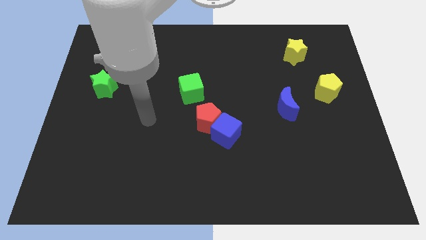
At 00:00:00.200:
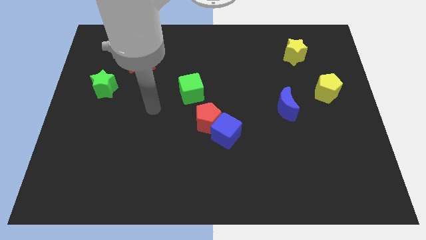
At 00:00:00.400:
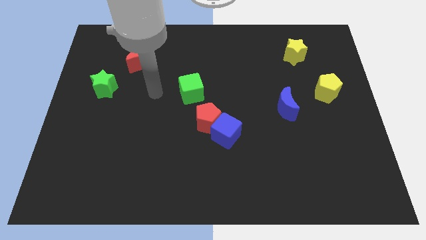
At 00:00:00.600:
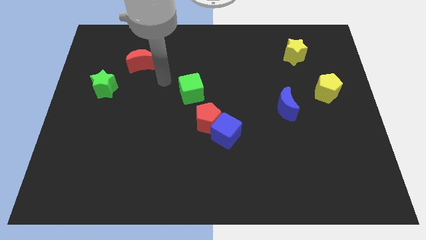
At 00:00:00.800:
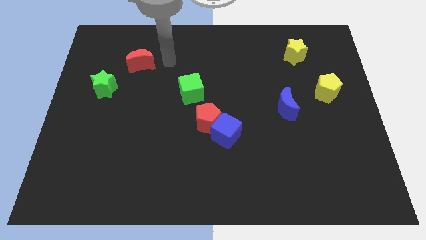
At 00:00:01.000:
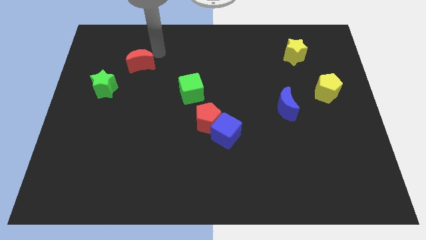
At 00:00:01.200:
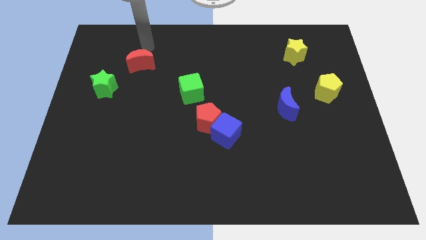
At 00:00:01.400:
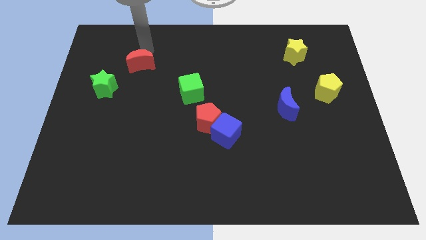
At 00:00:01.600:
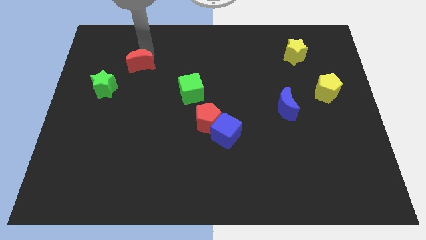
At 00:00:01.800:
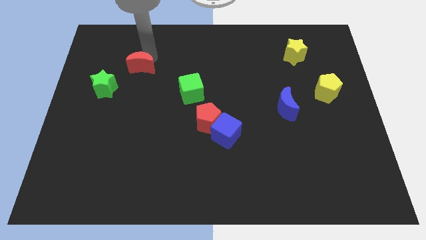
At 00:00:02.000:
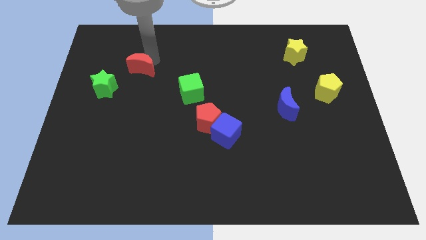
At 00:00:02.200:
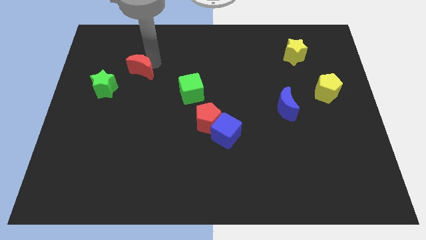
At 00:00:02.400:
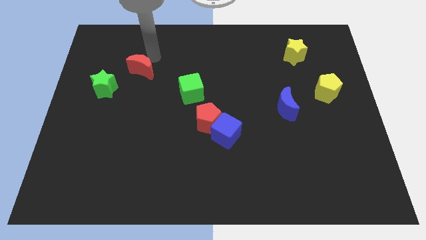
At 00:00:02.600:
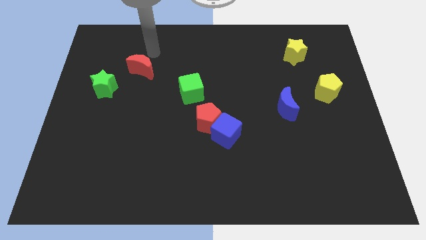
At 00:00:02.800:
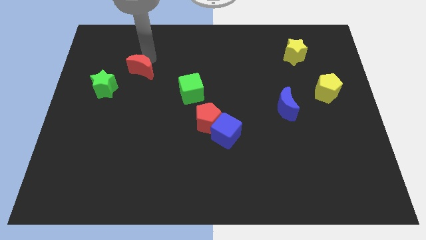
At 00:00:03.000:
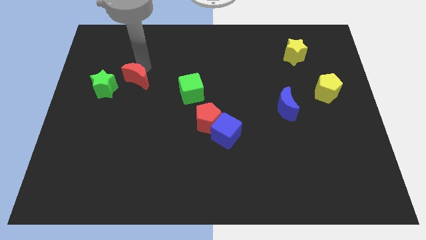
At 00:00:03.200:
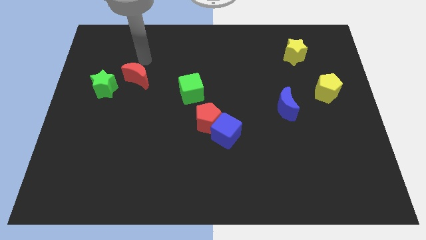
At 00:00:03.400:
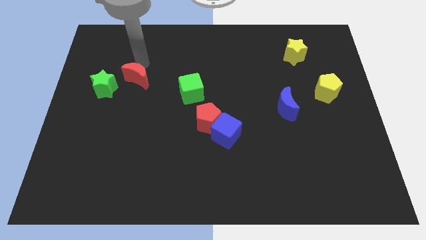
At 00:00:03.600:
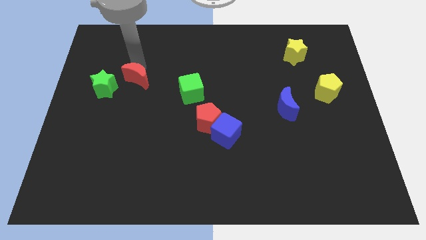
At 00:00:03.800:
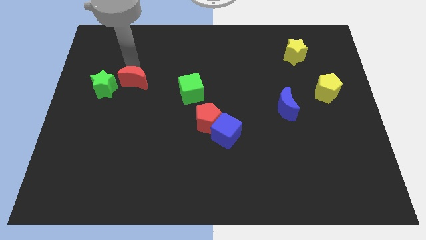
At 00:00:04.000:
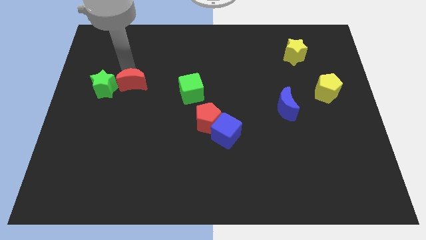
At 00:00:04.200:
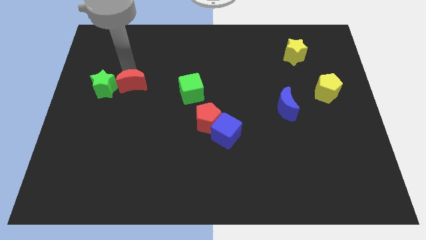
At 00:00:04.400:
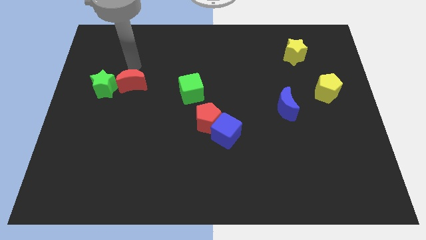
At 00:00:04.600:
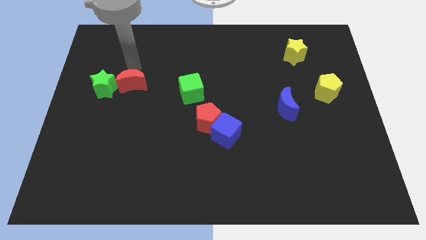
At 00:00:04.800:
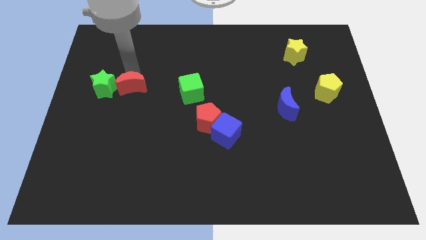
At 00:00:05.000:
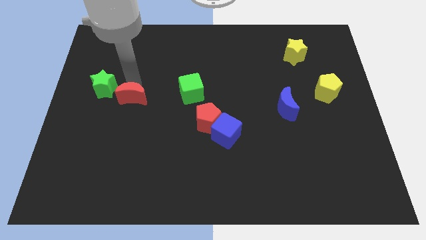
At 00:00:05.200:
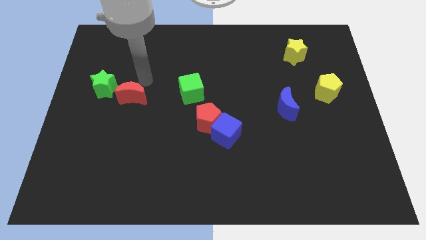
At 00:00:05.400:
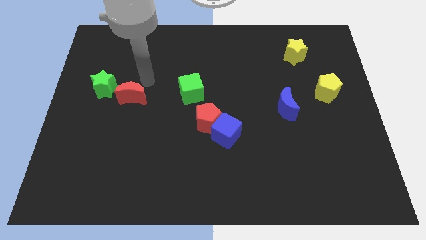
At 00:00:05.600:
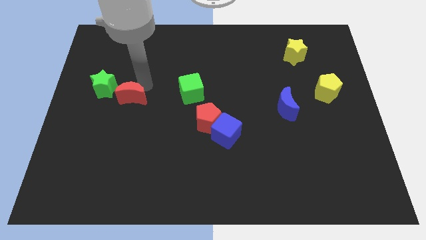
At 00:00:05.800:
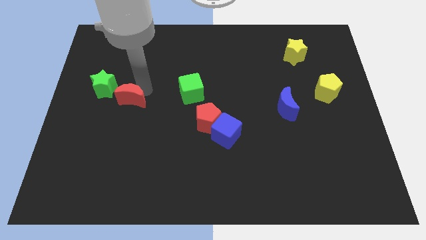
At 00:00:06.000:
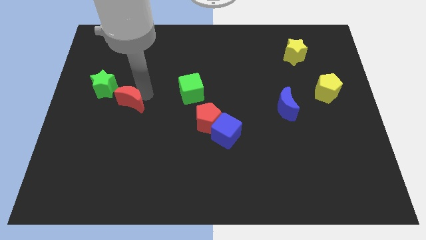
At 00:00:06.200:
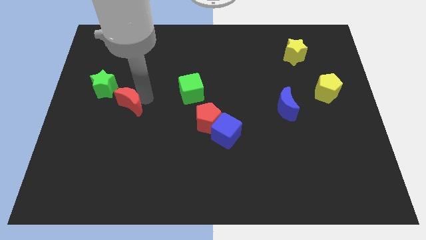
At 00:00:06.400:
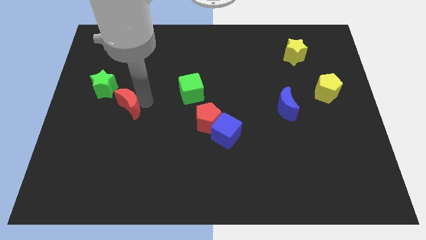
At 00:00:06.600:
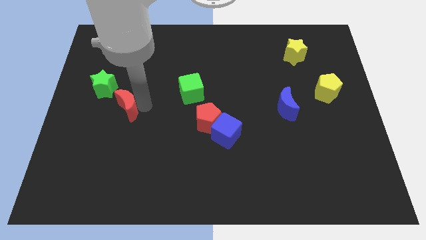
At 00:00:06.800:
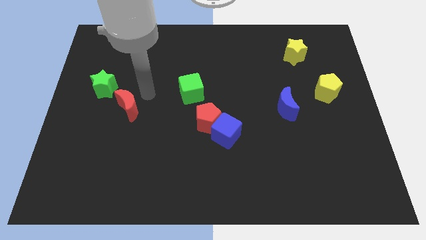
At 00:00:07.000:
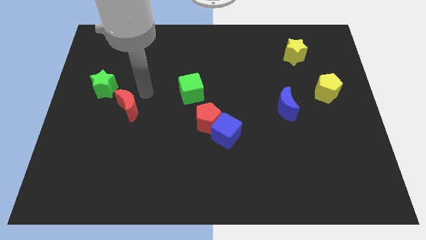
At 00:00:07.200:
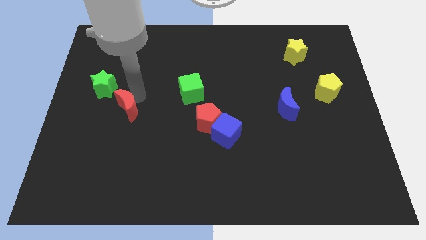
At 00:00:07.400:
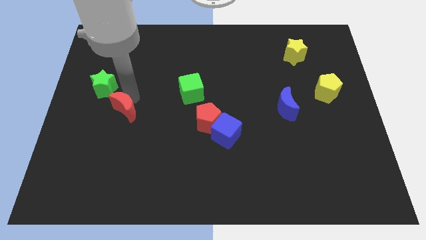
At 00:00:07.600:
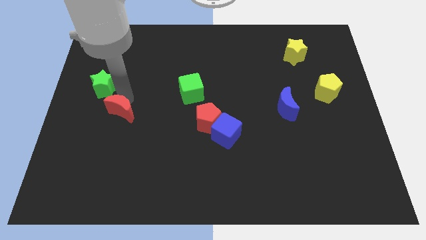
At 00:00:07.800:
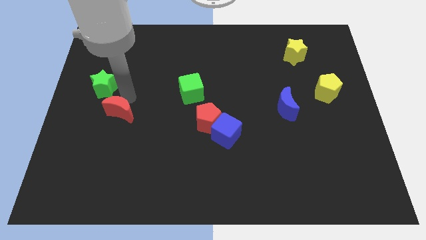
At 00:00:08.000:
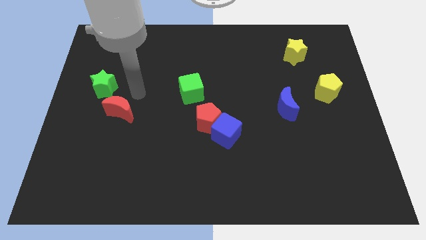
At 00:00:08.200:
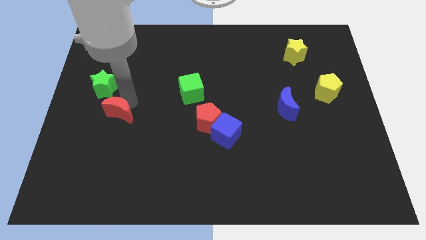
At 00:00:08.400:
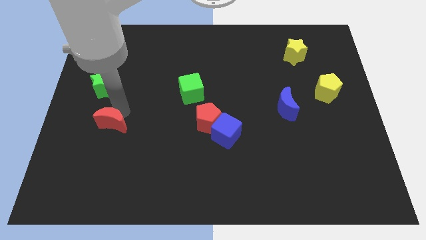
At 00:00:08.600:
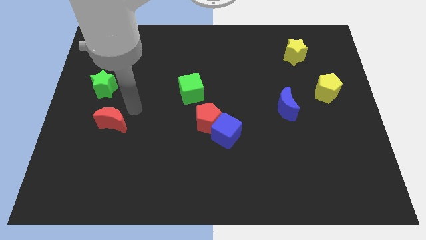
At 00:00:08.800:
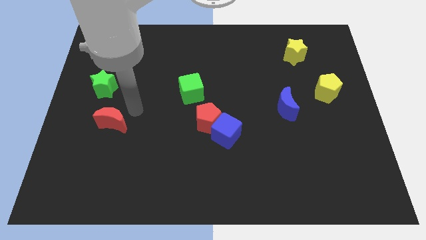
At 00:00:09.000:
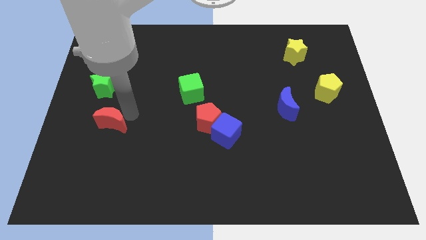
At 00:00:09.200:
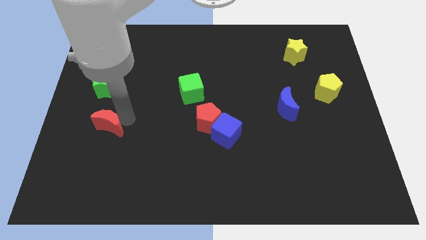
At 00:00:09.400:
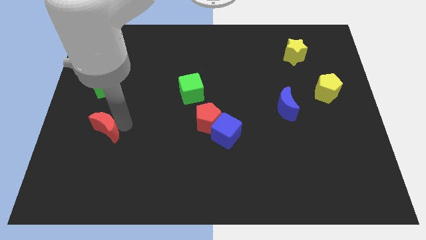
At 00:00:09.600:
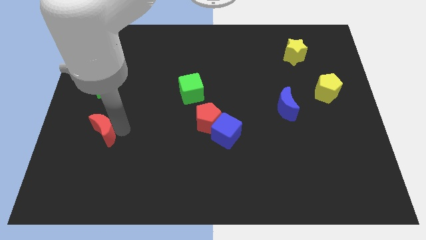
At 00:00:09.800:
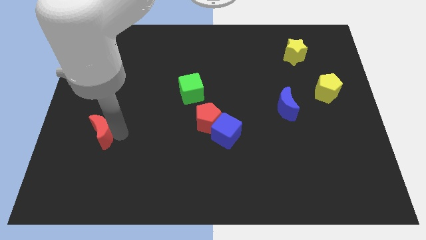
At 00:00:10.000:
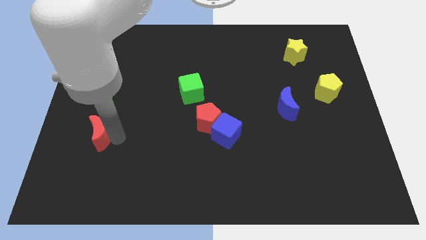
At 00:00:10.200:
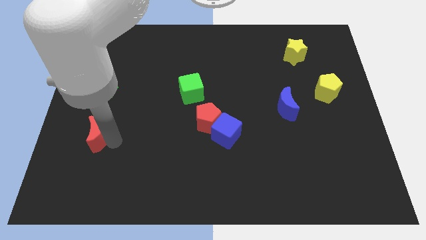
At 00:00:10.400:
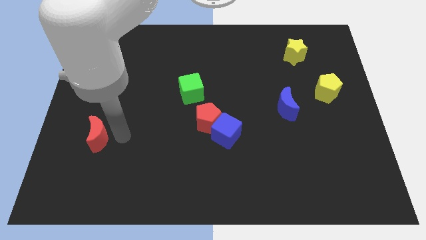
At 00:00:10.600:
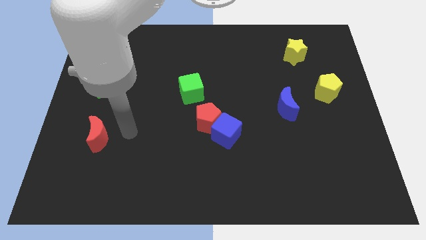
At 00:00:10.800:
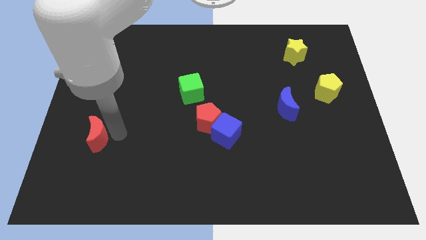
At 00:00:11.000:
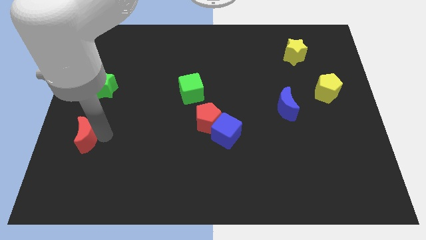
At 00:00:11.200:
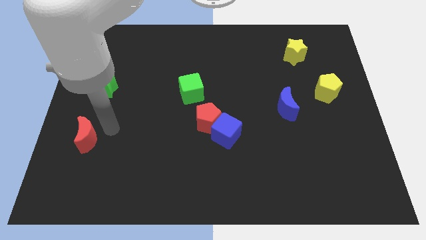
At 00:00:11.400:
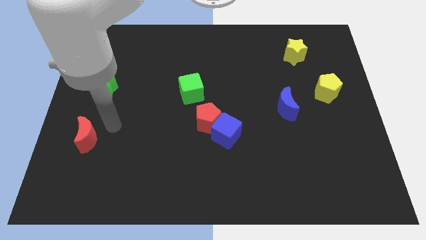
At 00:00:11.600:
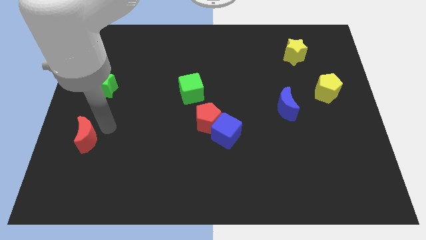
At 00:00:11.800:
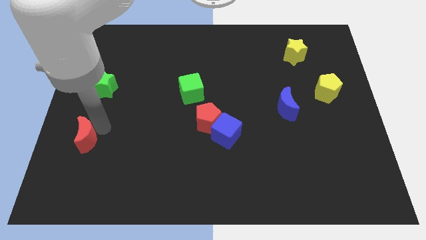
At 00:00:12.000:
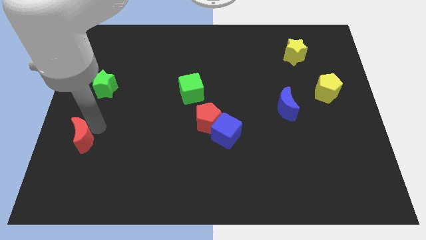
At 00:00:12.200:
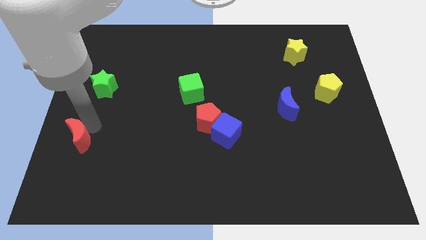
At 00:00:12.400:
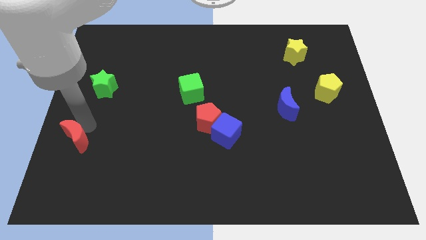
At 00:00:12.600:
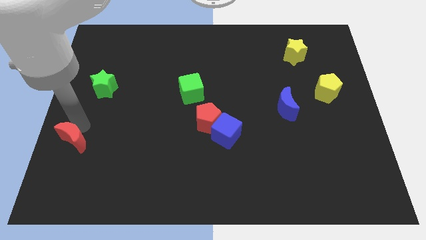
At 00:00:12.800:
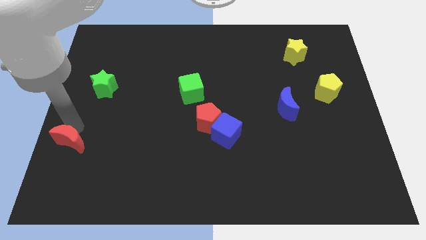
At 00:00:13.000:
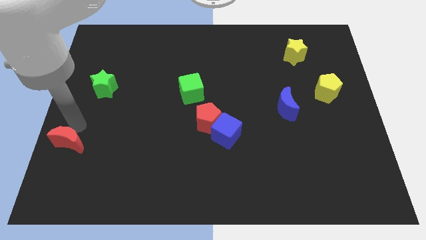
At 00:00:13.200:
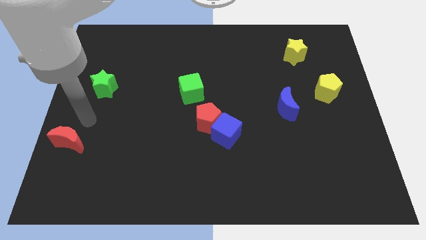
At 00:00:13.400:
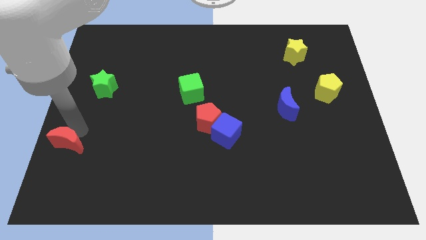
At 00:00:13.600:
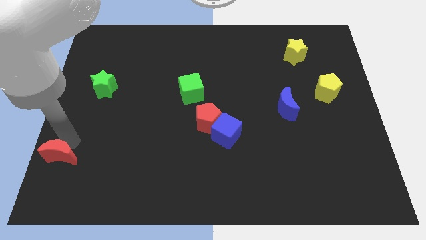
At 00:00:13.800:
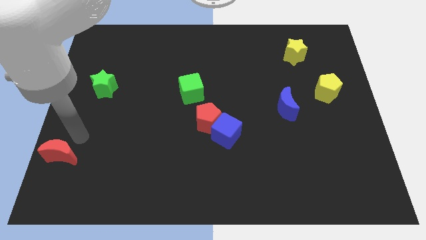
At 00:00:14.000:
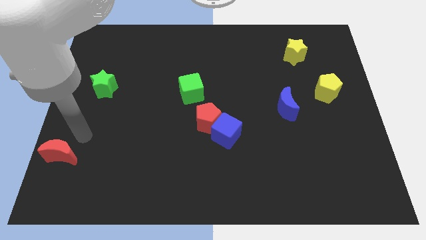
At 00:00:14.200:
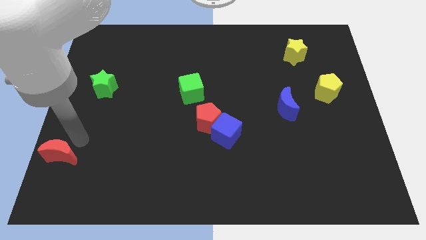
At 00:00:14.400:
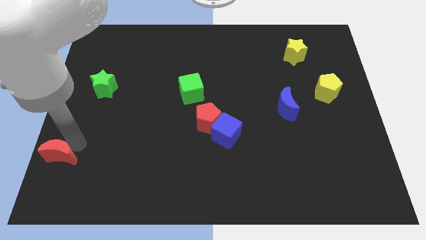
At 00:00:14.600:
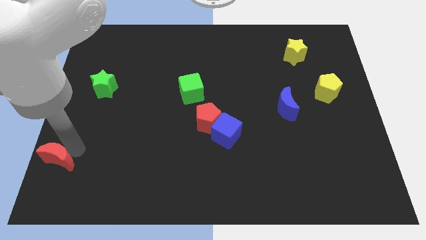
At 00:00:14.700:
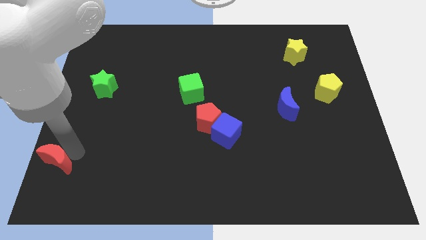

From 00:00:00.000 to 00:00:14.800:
slide the red moon to the bottom left
